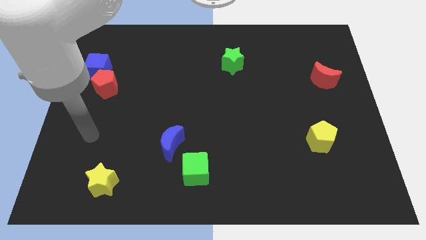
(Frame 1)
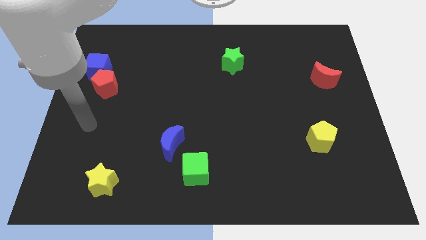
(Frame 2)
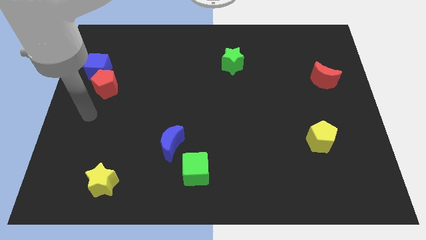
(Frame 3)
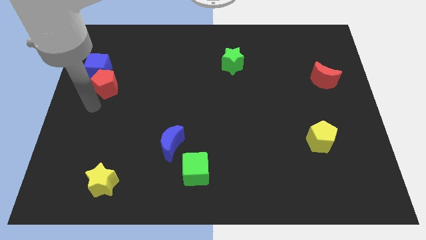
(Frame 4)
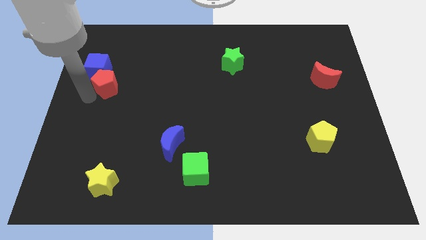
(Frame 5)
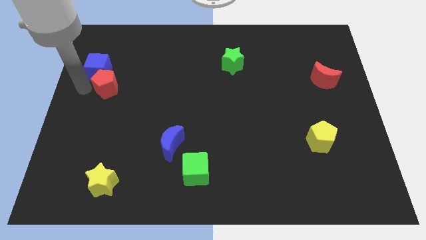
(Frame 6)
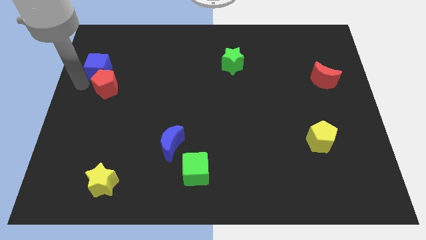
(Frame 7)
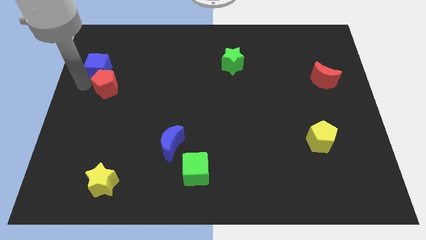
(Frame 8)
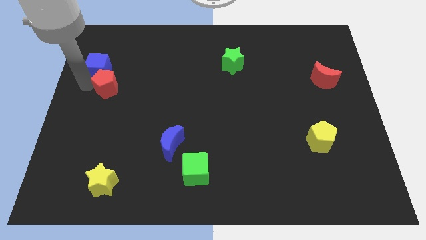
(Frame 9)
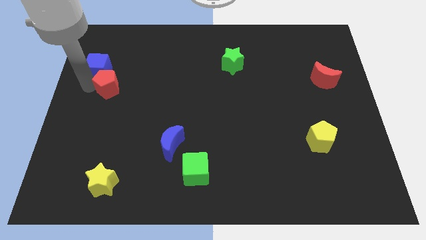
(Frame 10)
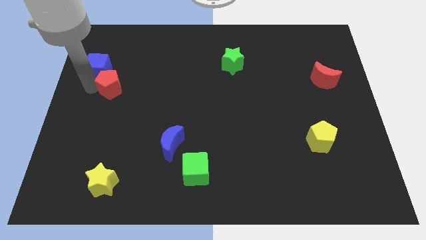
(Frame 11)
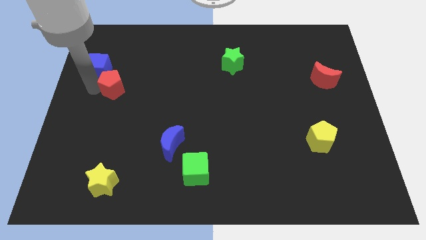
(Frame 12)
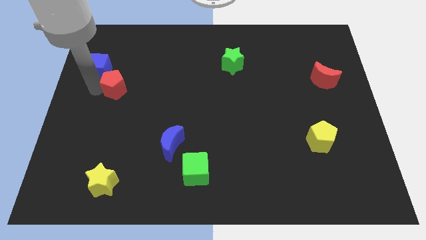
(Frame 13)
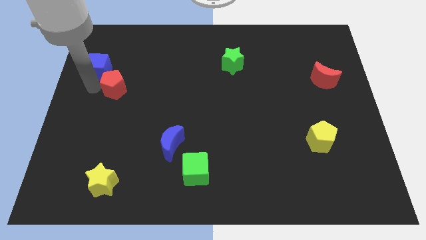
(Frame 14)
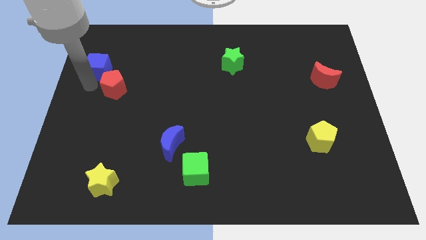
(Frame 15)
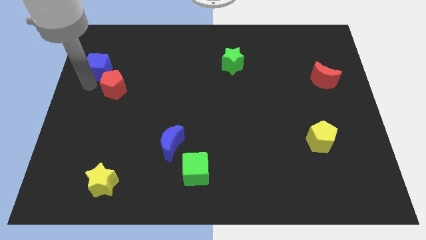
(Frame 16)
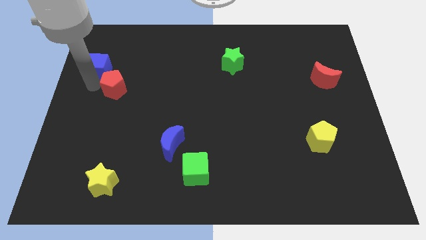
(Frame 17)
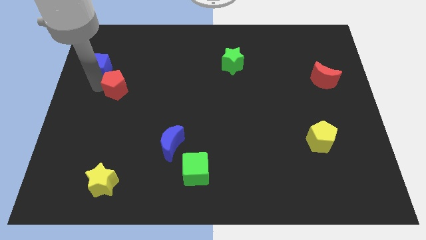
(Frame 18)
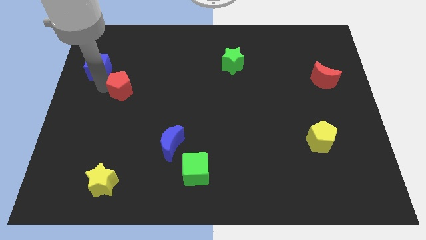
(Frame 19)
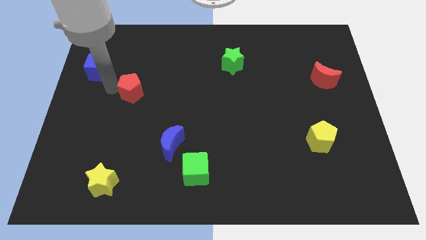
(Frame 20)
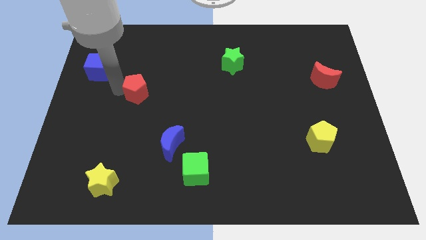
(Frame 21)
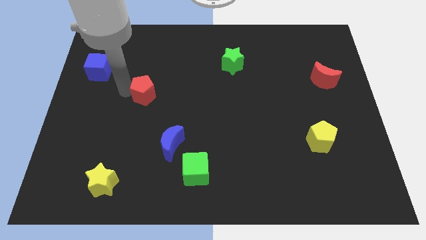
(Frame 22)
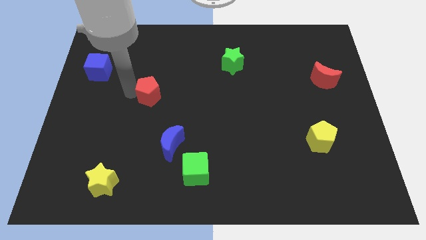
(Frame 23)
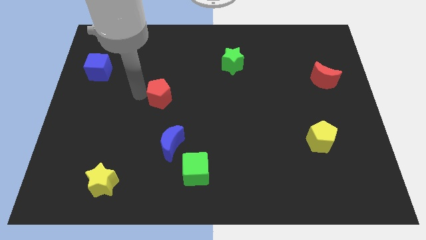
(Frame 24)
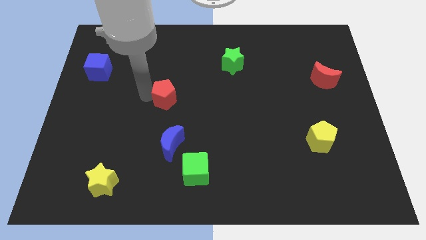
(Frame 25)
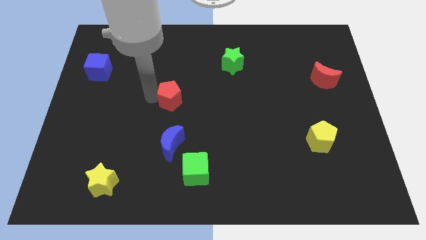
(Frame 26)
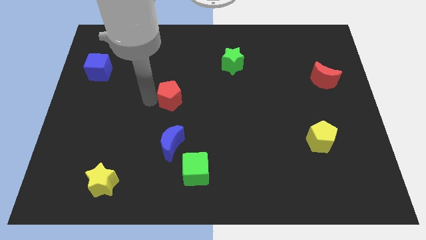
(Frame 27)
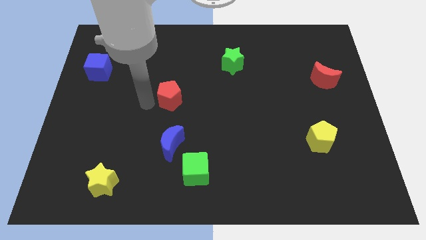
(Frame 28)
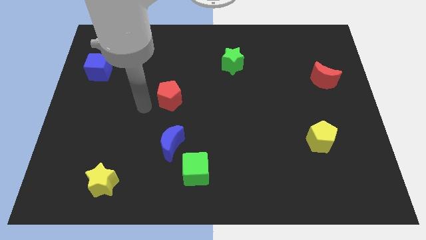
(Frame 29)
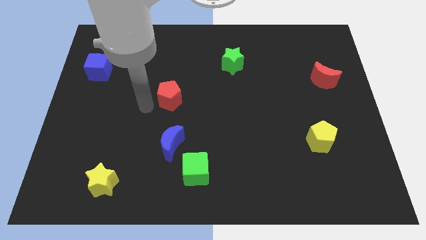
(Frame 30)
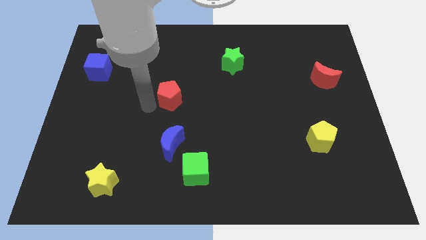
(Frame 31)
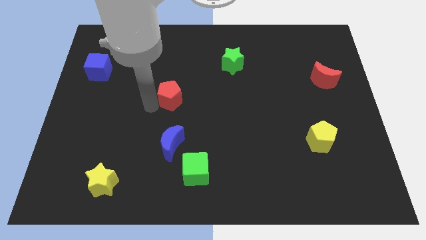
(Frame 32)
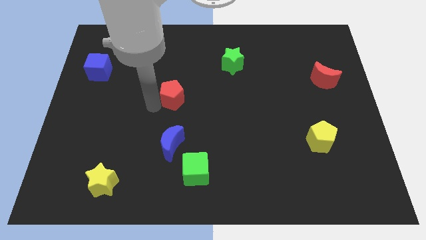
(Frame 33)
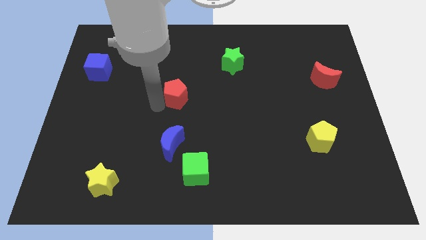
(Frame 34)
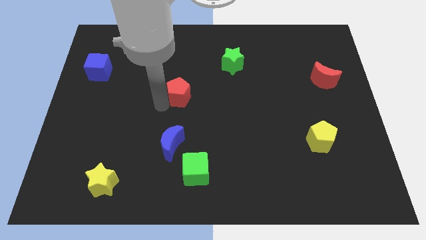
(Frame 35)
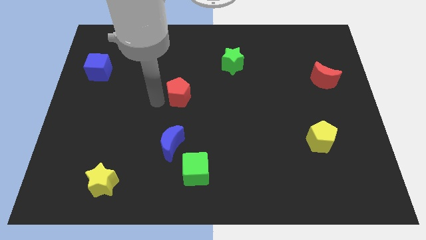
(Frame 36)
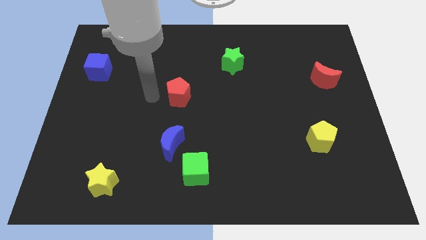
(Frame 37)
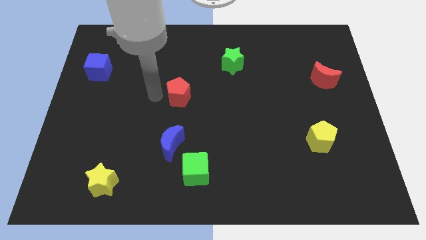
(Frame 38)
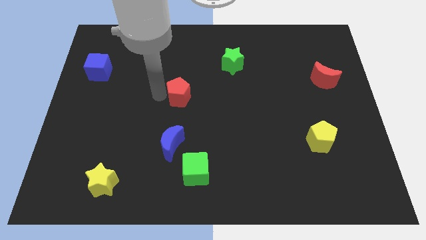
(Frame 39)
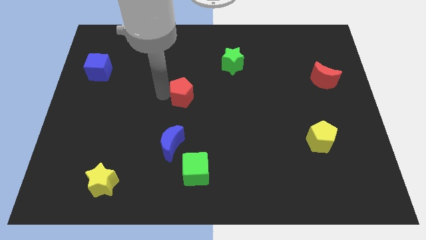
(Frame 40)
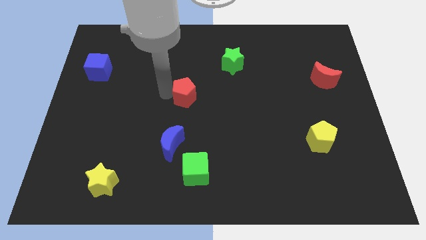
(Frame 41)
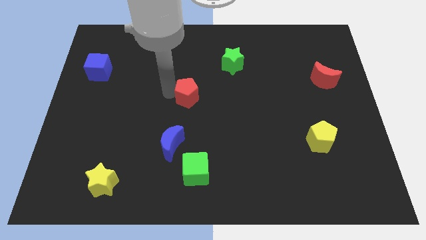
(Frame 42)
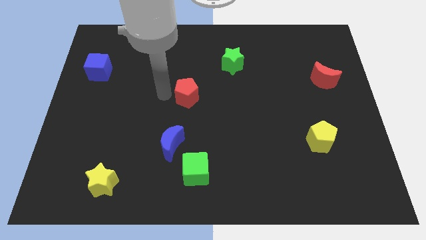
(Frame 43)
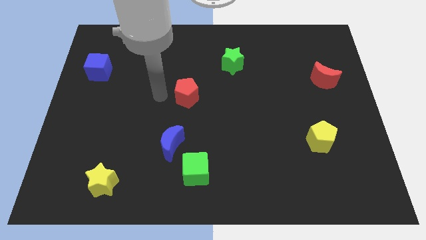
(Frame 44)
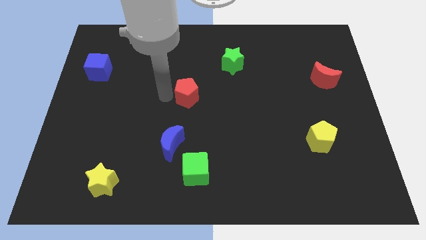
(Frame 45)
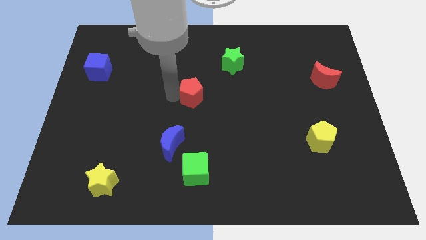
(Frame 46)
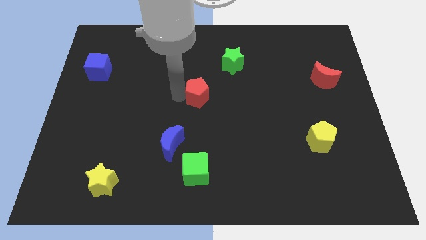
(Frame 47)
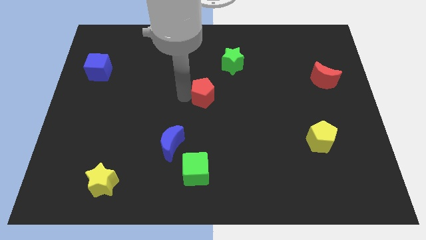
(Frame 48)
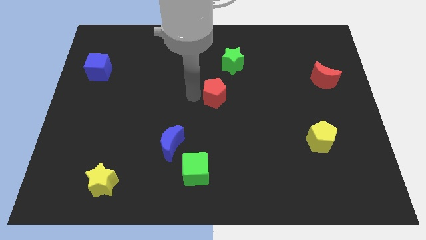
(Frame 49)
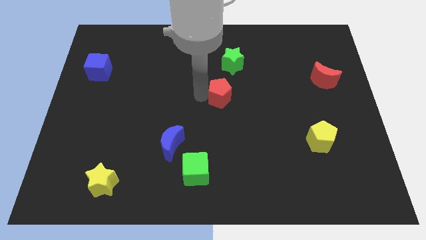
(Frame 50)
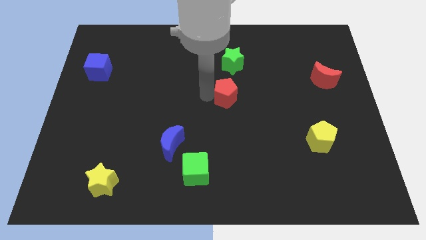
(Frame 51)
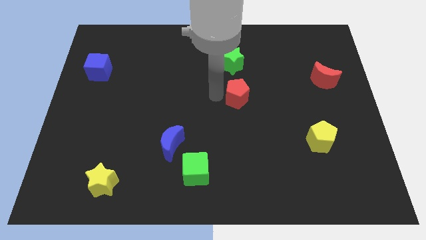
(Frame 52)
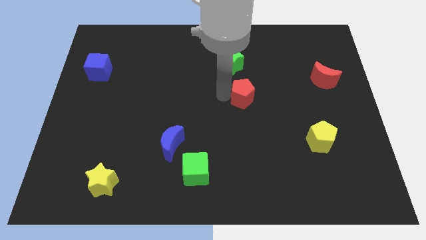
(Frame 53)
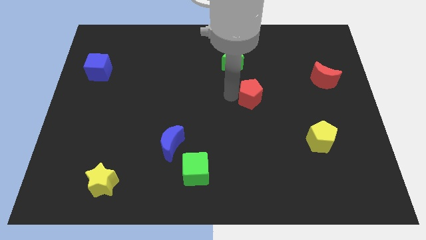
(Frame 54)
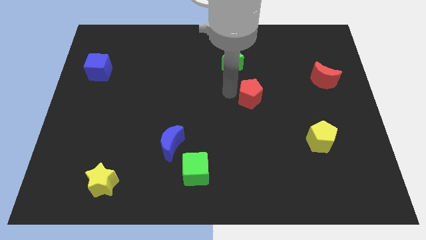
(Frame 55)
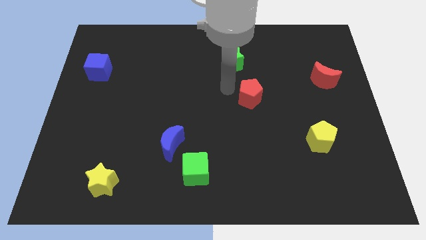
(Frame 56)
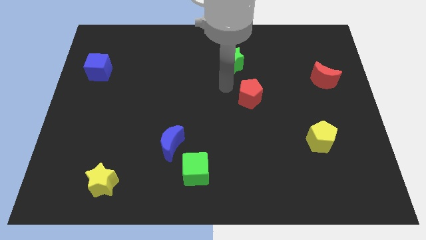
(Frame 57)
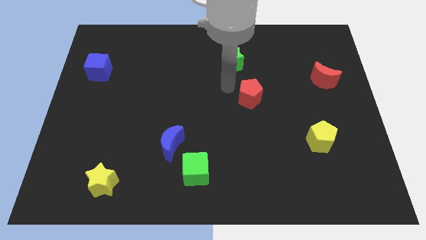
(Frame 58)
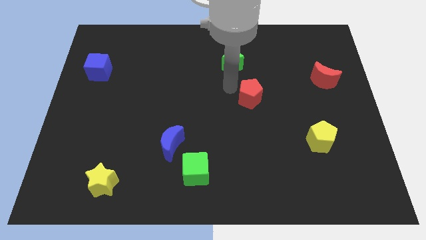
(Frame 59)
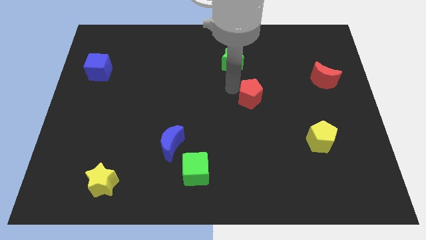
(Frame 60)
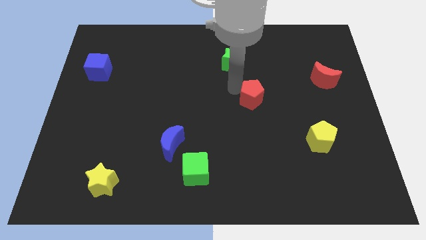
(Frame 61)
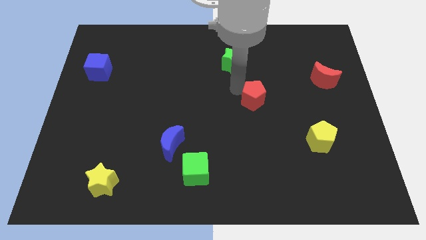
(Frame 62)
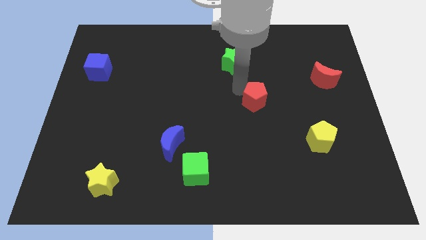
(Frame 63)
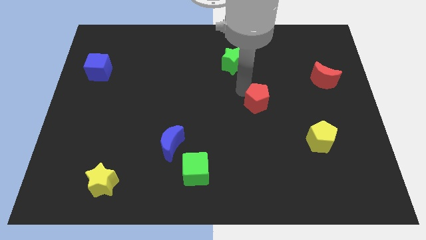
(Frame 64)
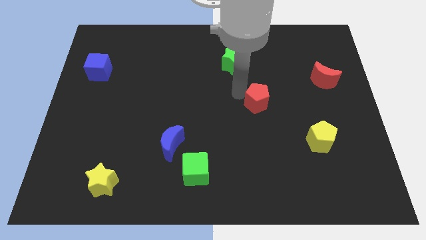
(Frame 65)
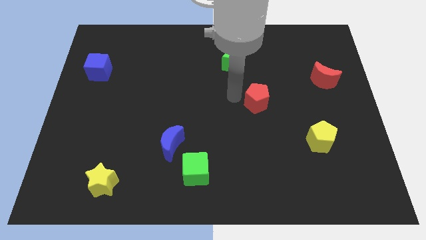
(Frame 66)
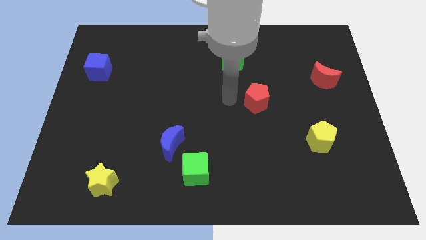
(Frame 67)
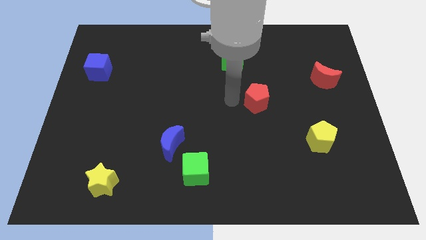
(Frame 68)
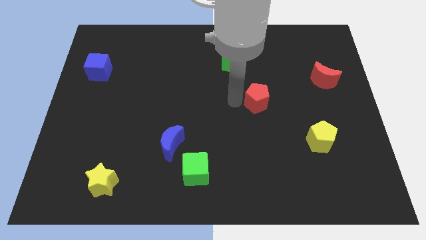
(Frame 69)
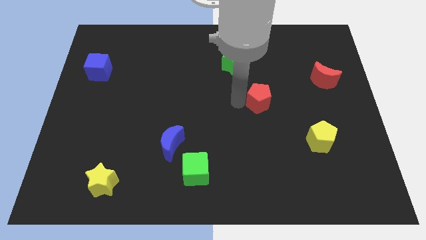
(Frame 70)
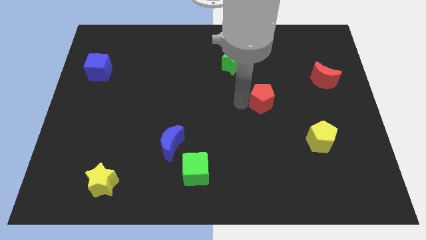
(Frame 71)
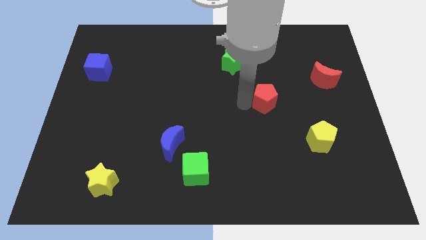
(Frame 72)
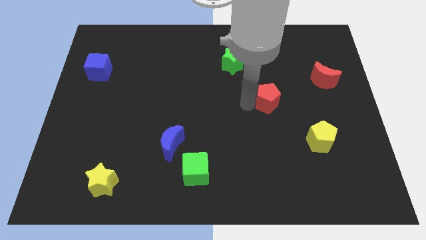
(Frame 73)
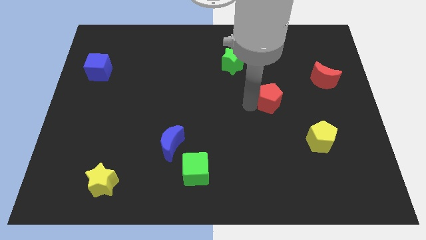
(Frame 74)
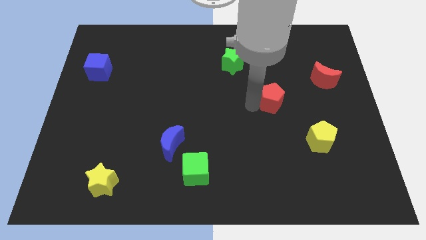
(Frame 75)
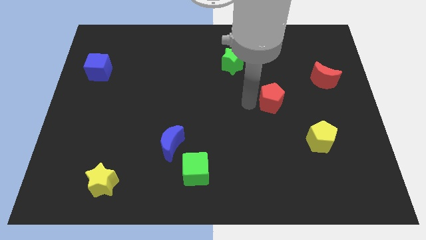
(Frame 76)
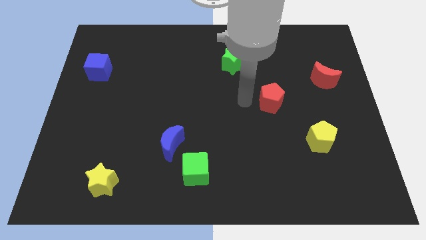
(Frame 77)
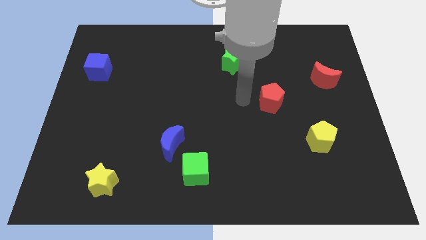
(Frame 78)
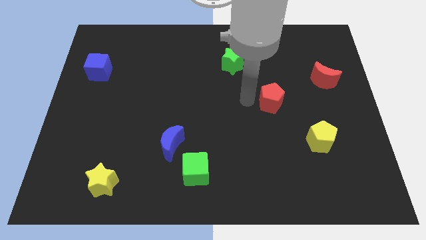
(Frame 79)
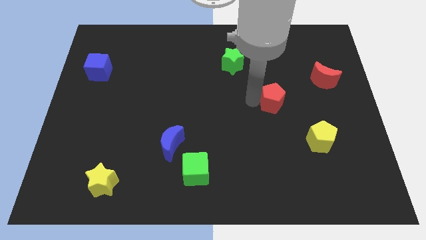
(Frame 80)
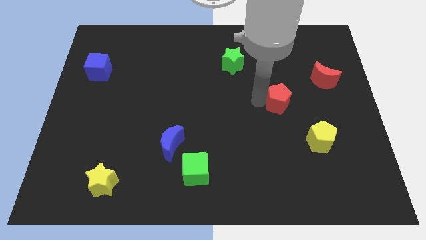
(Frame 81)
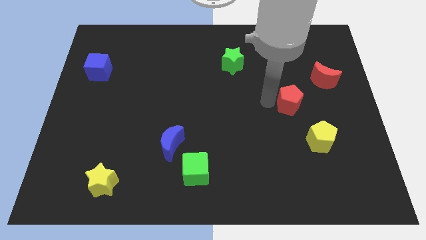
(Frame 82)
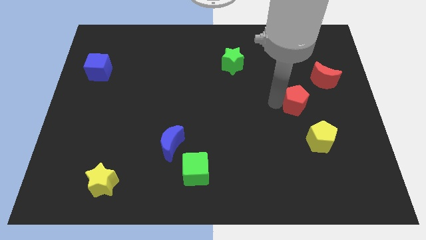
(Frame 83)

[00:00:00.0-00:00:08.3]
push the red pentagon above the yellow pentagon
